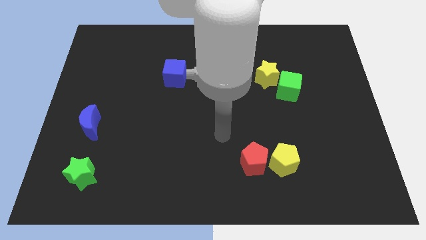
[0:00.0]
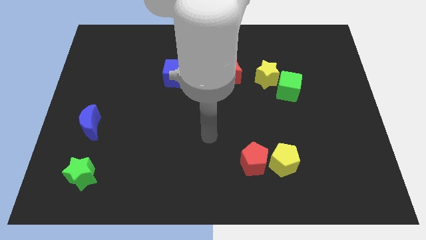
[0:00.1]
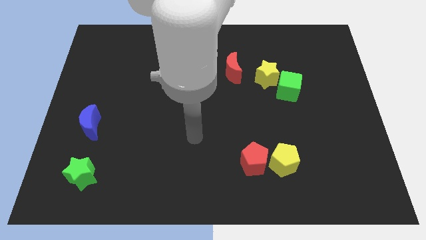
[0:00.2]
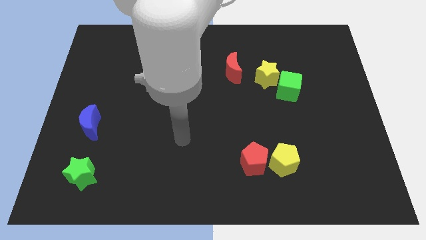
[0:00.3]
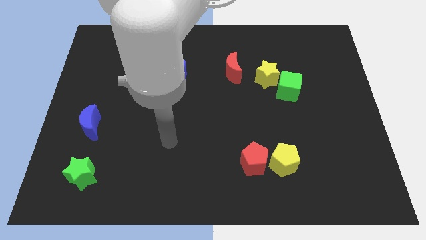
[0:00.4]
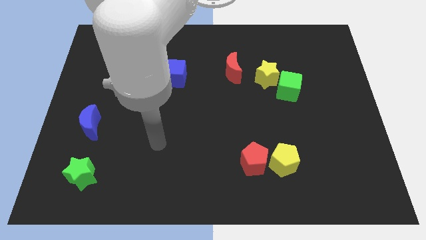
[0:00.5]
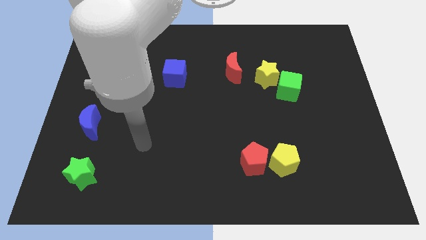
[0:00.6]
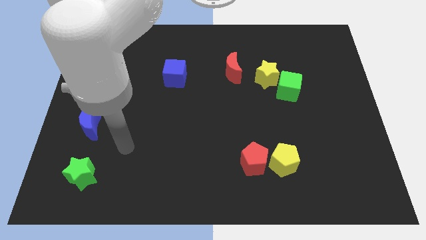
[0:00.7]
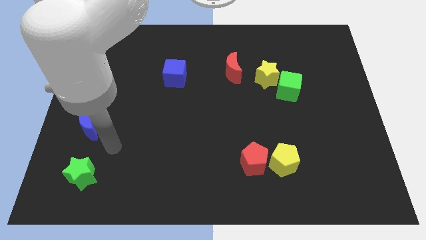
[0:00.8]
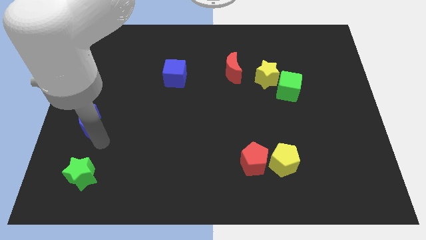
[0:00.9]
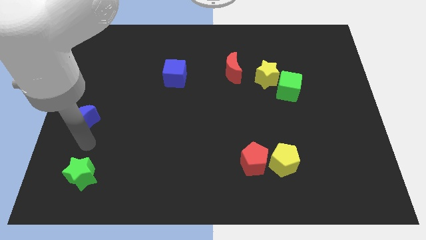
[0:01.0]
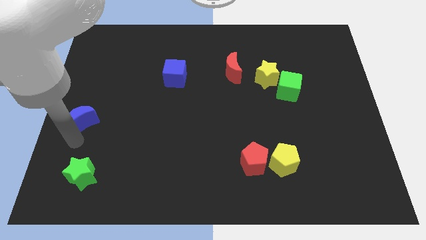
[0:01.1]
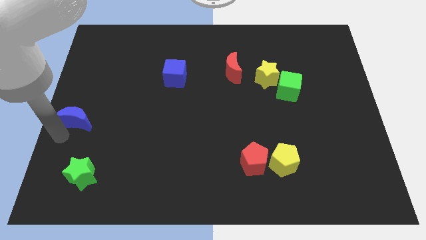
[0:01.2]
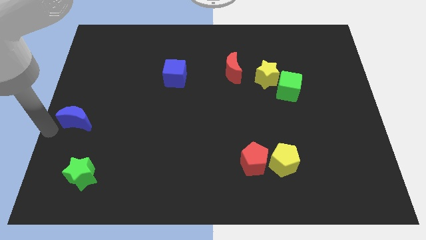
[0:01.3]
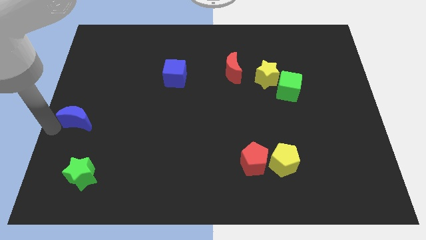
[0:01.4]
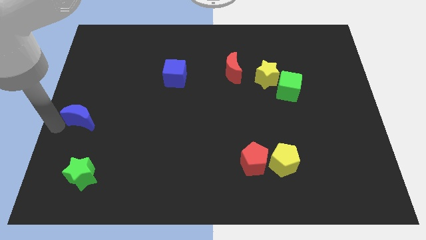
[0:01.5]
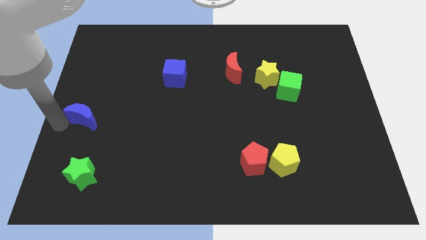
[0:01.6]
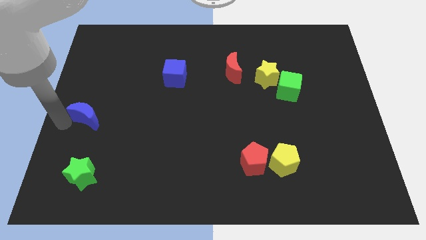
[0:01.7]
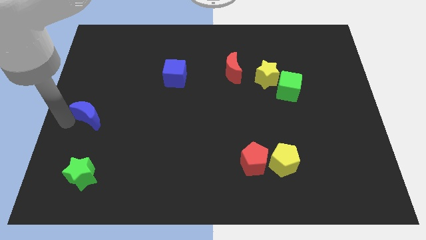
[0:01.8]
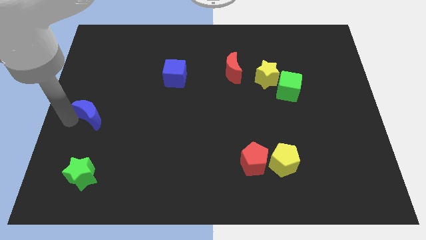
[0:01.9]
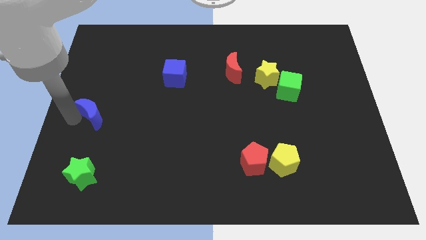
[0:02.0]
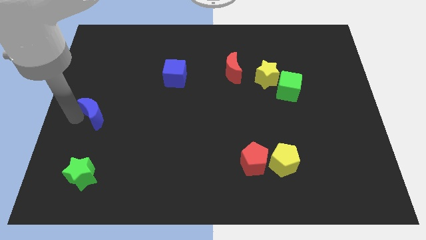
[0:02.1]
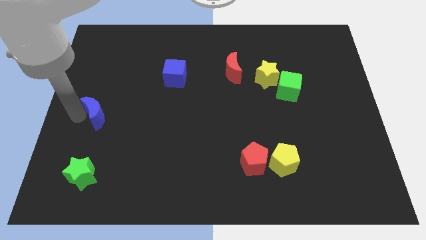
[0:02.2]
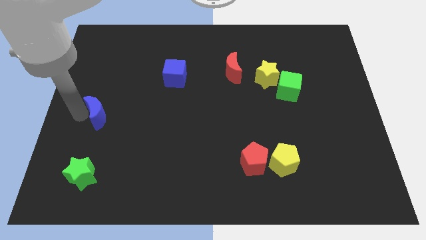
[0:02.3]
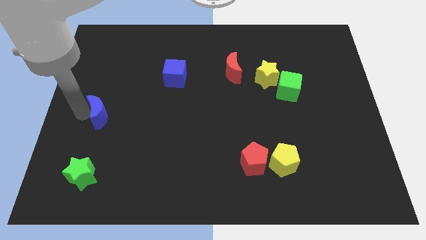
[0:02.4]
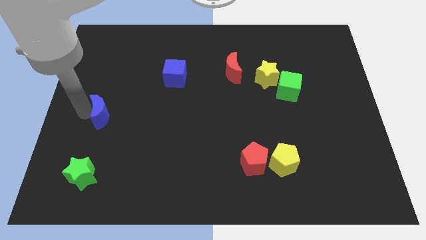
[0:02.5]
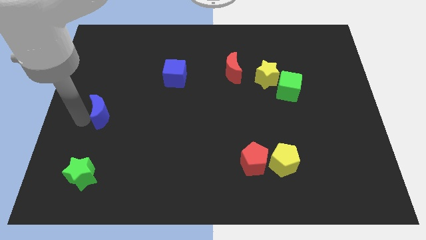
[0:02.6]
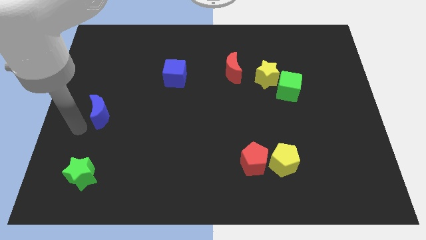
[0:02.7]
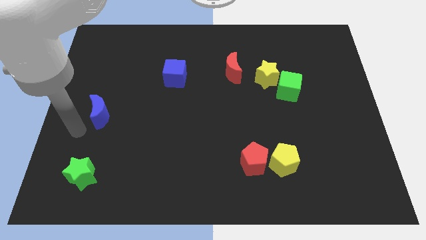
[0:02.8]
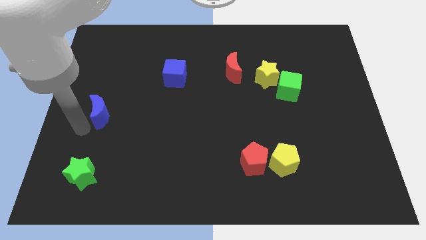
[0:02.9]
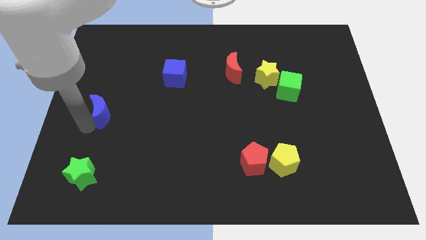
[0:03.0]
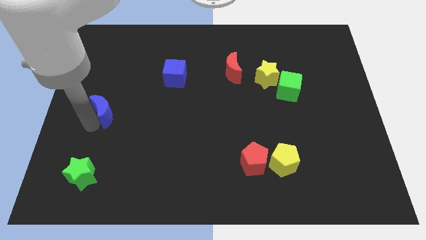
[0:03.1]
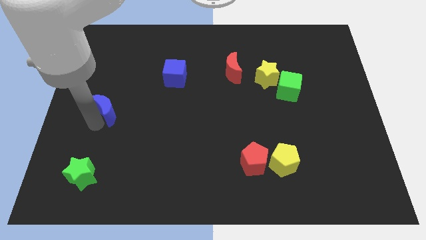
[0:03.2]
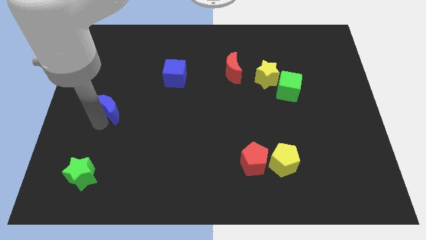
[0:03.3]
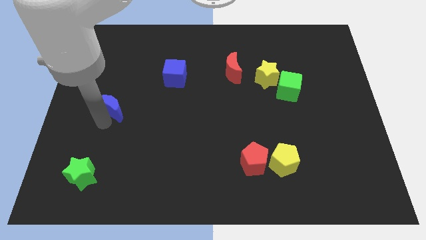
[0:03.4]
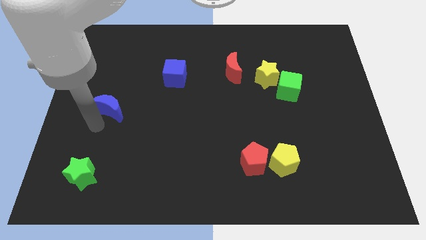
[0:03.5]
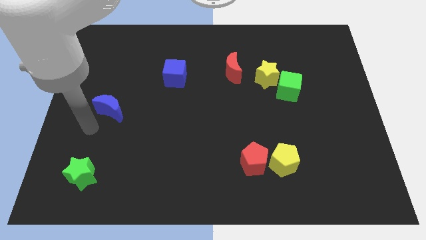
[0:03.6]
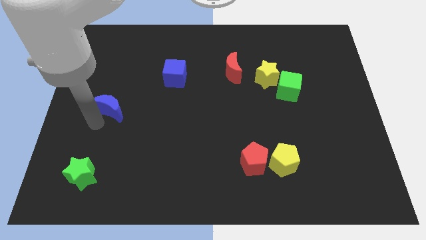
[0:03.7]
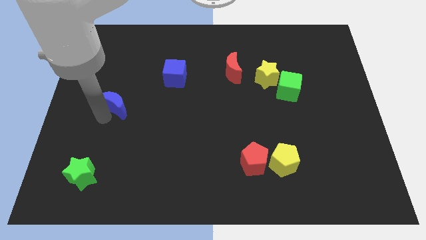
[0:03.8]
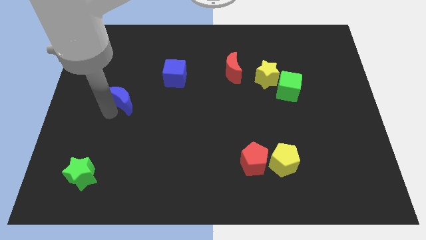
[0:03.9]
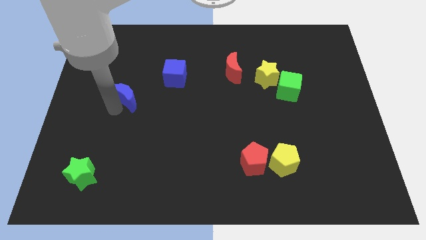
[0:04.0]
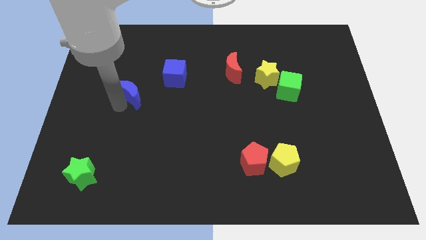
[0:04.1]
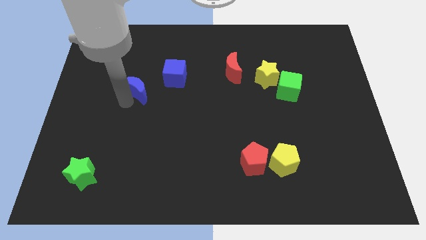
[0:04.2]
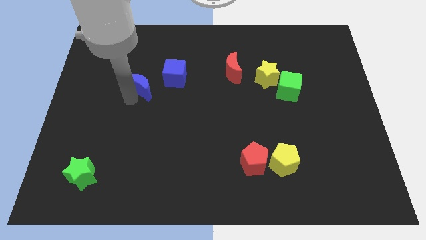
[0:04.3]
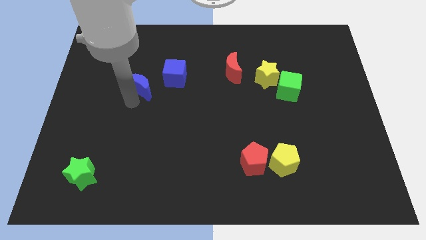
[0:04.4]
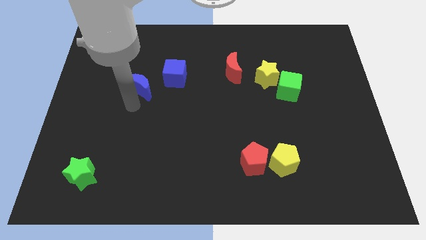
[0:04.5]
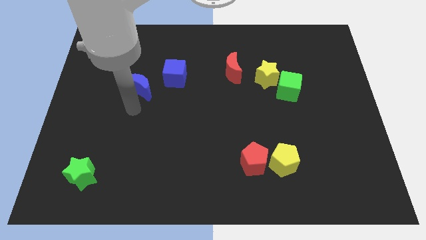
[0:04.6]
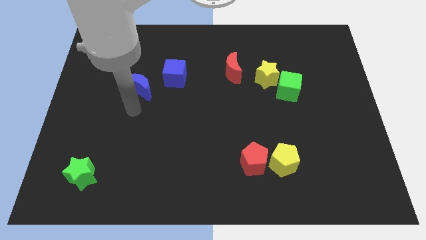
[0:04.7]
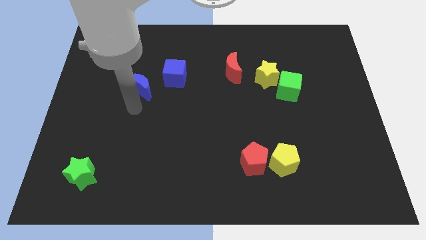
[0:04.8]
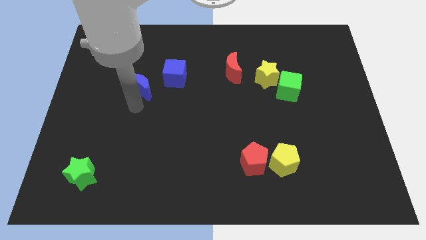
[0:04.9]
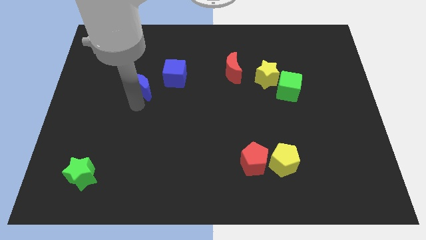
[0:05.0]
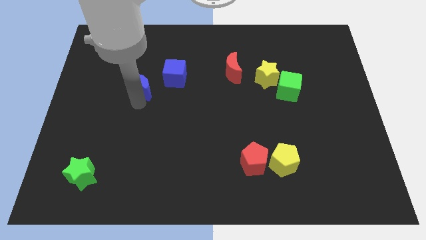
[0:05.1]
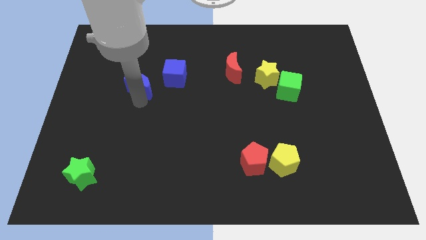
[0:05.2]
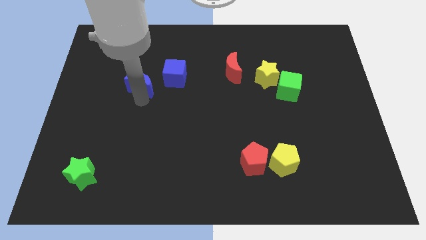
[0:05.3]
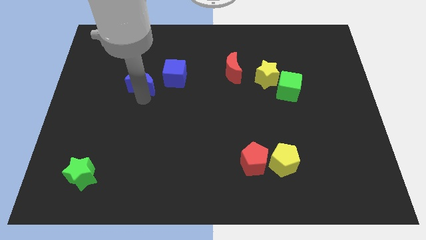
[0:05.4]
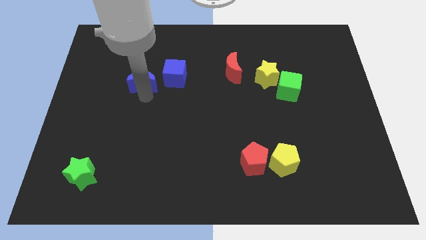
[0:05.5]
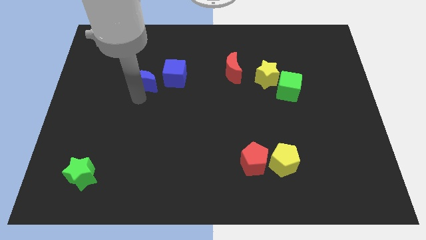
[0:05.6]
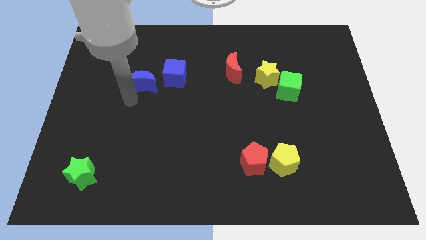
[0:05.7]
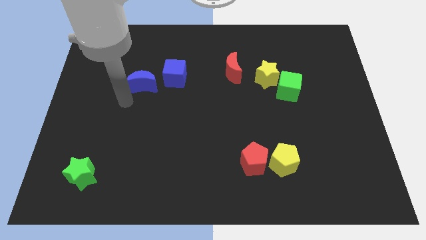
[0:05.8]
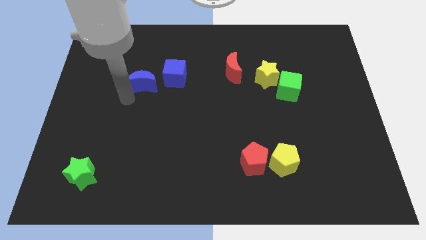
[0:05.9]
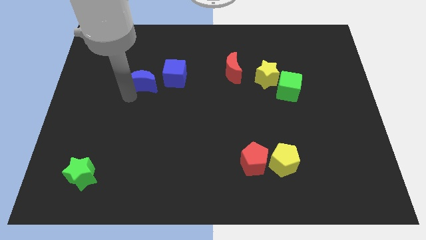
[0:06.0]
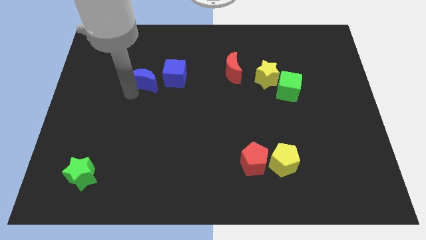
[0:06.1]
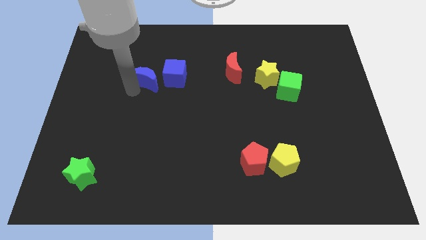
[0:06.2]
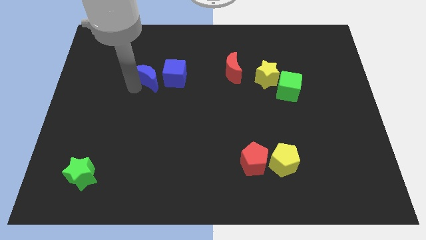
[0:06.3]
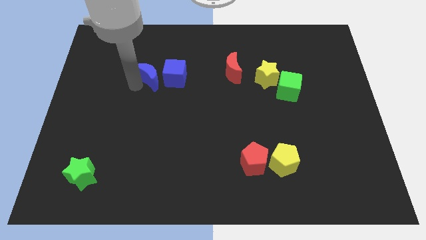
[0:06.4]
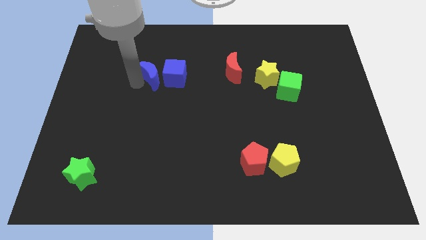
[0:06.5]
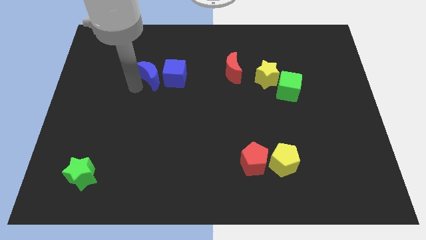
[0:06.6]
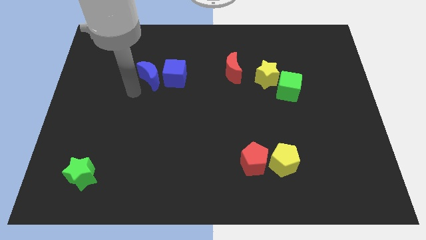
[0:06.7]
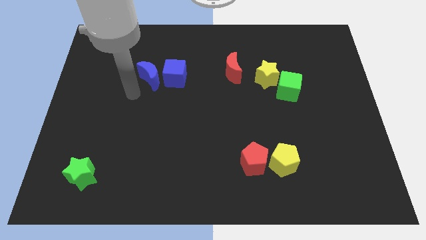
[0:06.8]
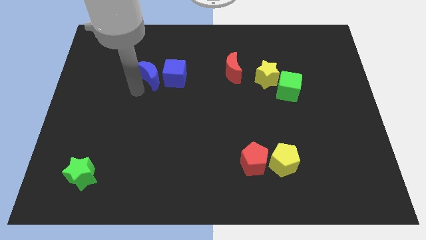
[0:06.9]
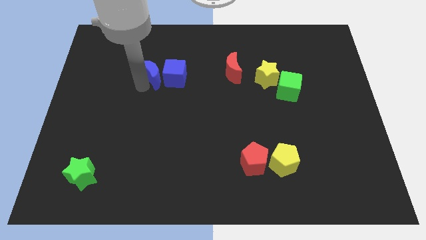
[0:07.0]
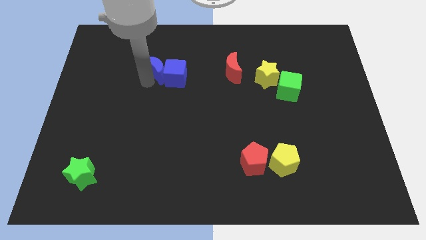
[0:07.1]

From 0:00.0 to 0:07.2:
slide the blue moon upwards and right diagonally

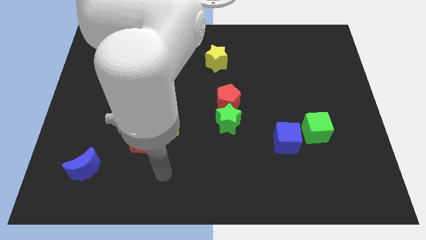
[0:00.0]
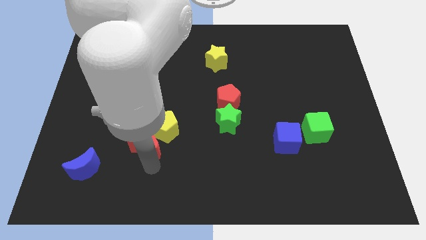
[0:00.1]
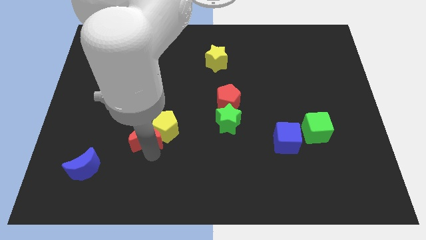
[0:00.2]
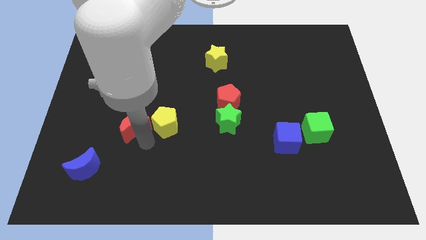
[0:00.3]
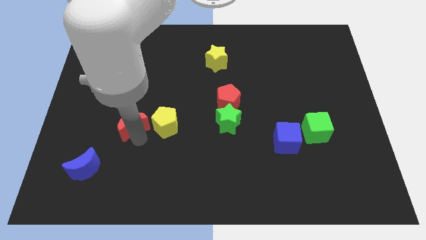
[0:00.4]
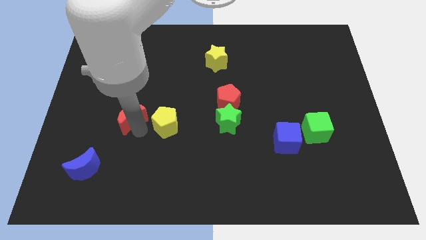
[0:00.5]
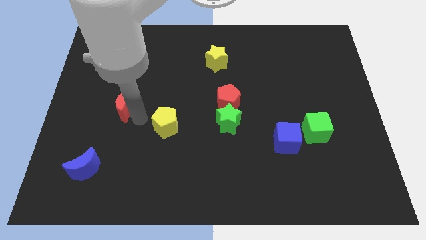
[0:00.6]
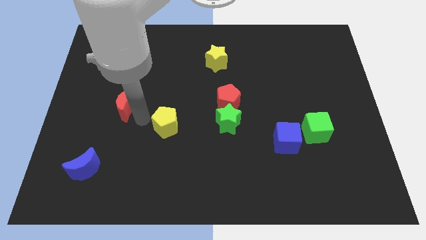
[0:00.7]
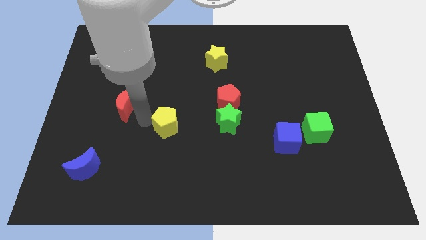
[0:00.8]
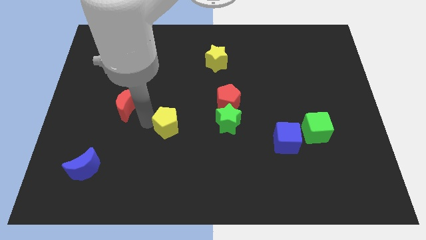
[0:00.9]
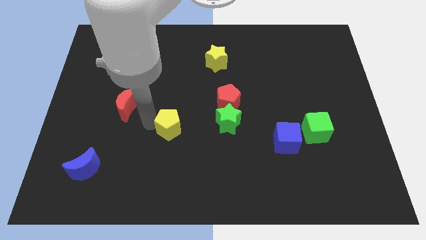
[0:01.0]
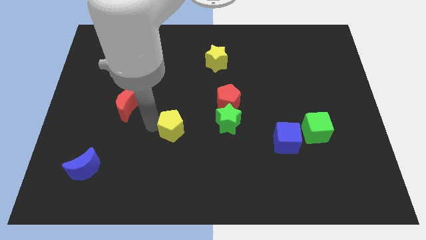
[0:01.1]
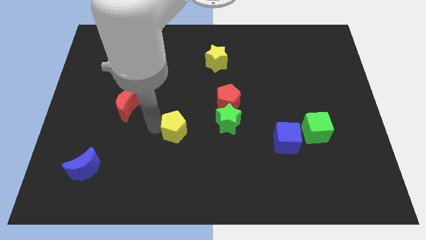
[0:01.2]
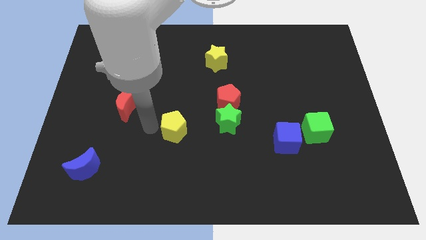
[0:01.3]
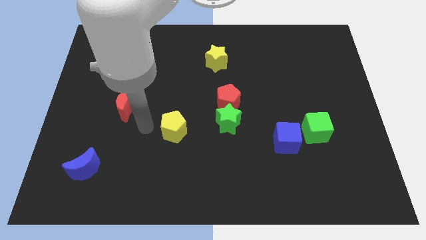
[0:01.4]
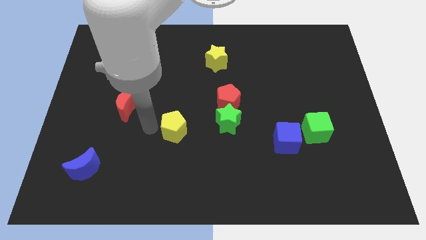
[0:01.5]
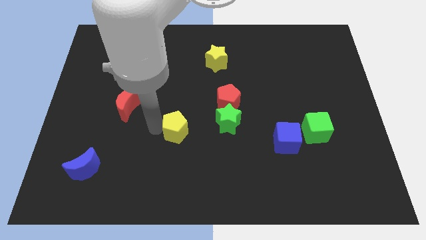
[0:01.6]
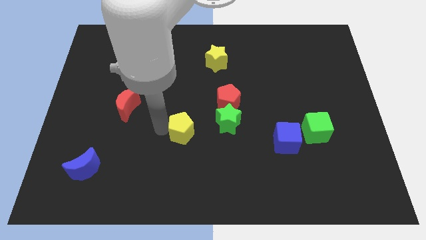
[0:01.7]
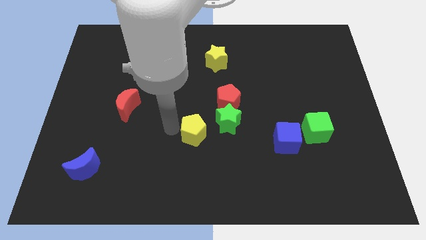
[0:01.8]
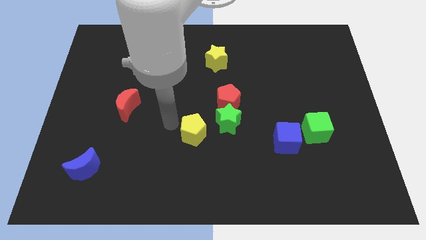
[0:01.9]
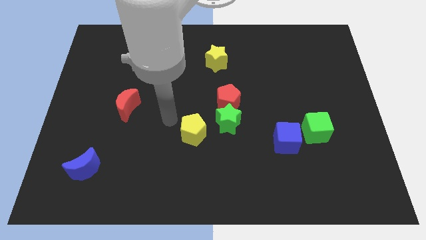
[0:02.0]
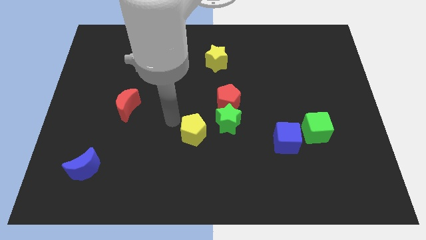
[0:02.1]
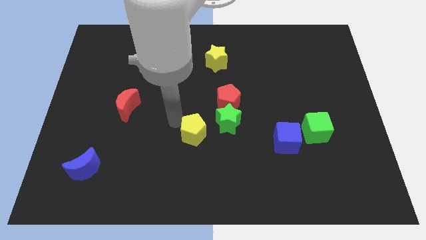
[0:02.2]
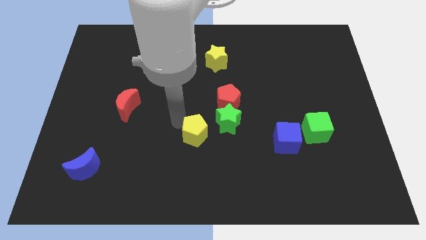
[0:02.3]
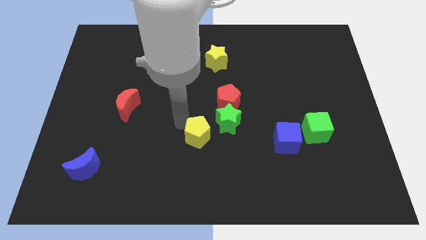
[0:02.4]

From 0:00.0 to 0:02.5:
push the yellow pentagon right a little bit
